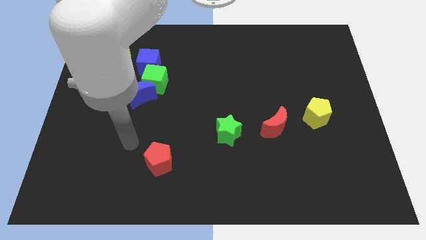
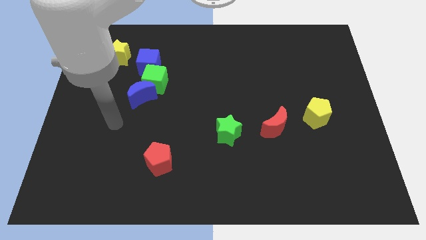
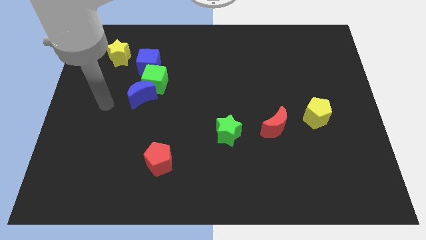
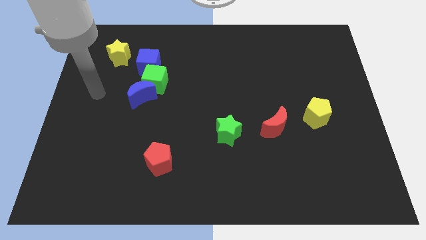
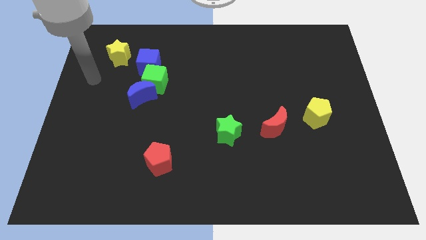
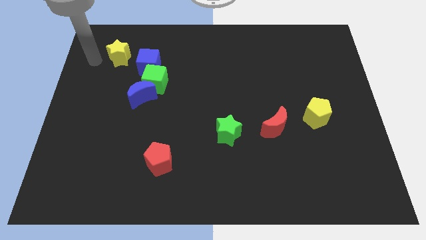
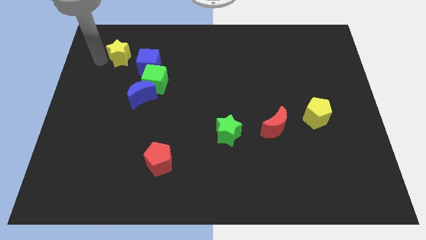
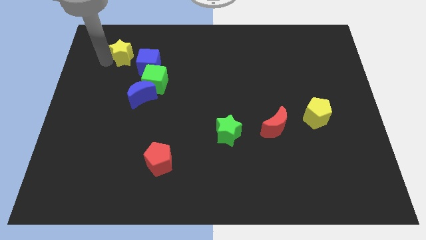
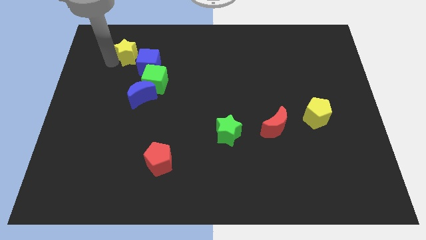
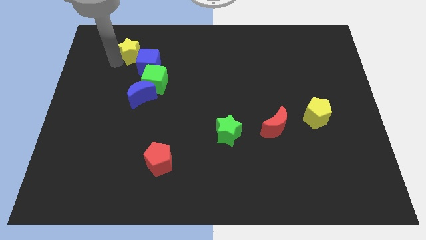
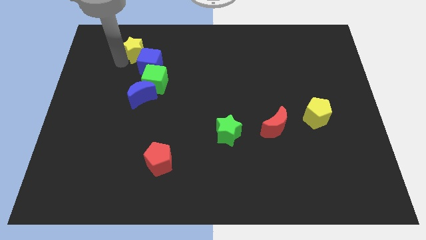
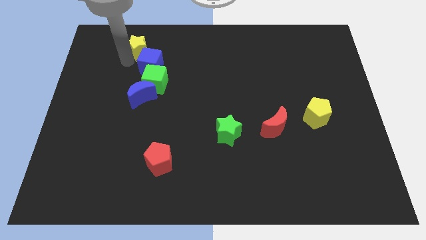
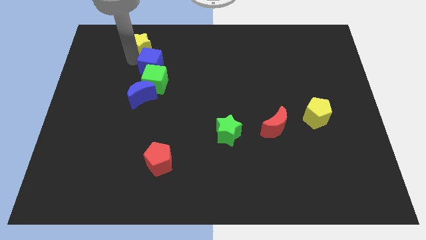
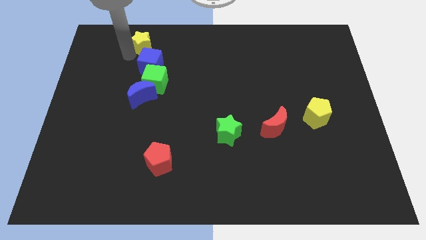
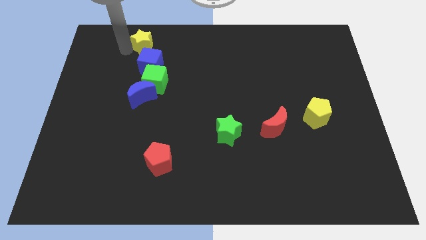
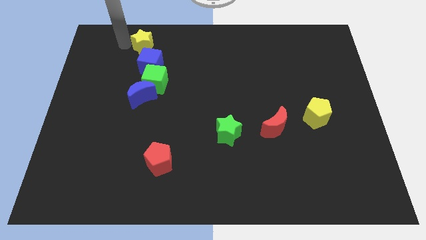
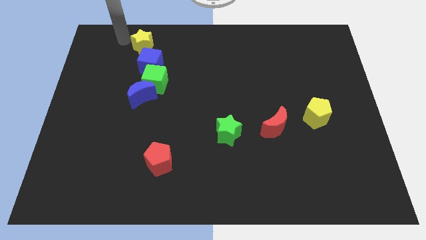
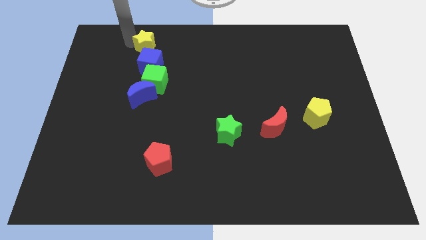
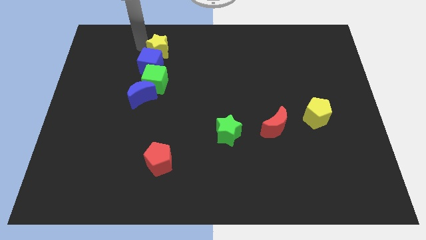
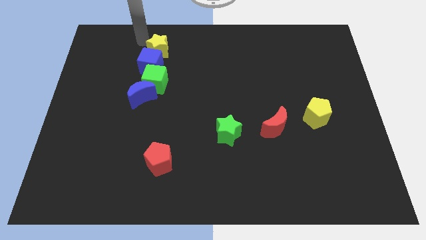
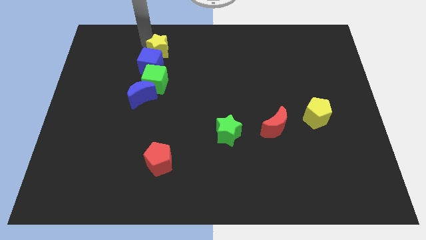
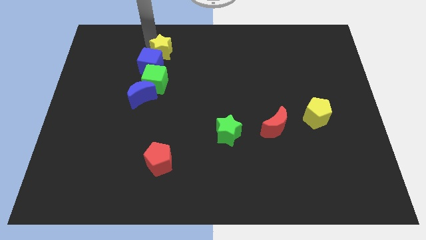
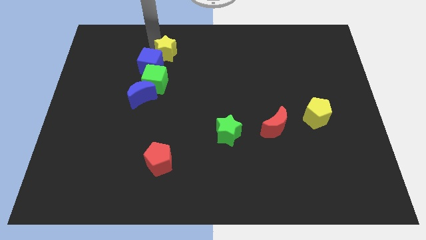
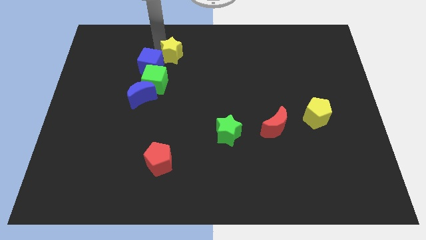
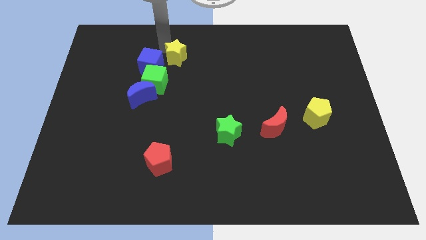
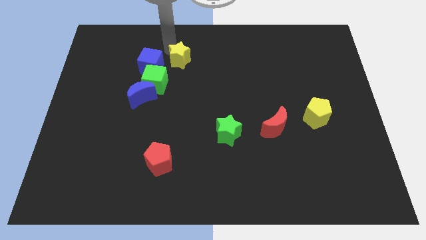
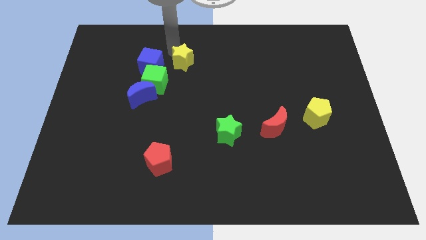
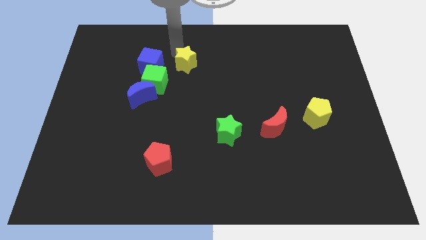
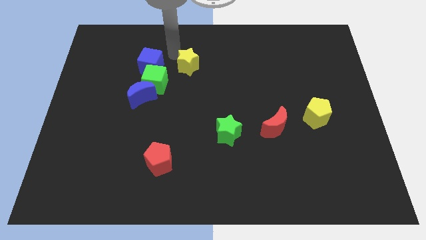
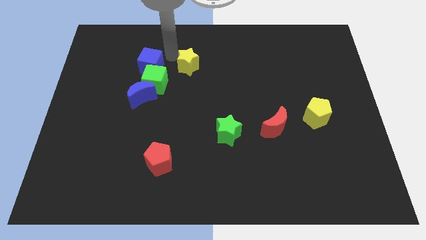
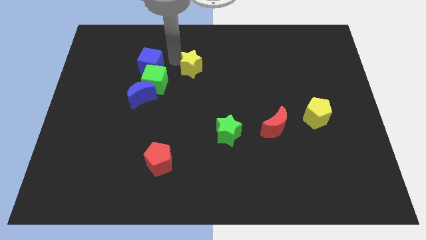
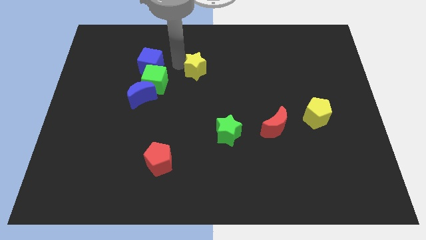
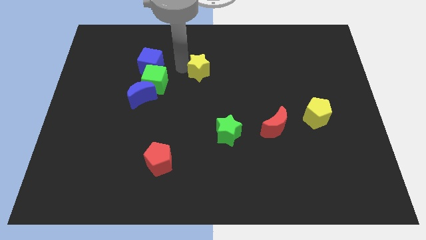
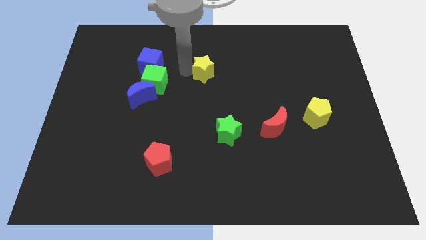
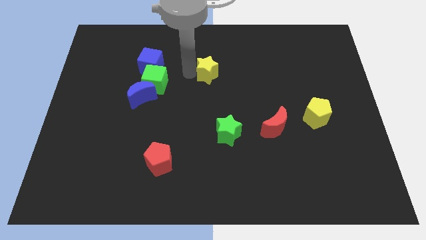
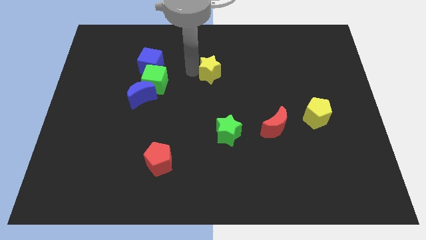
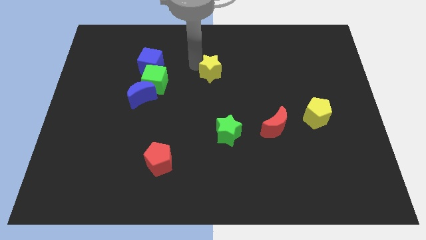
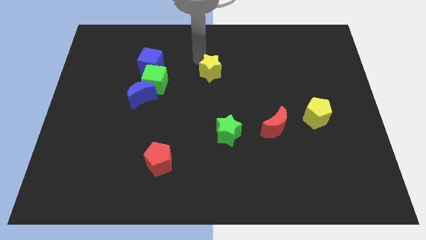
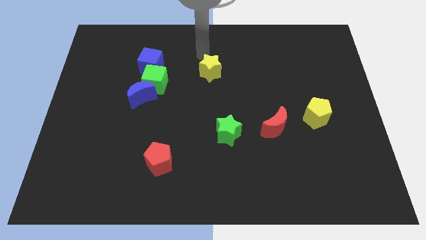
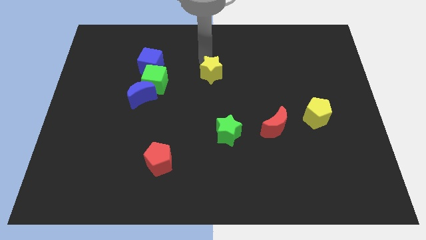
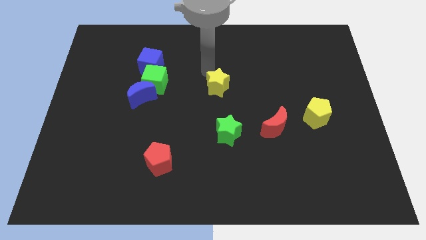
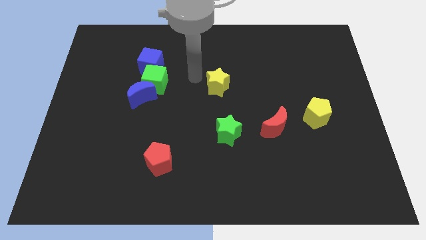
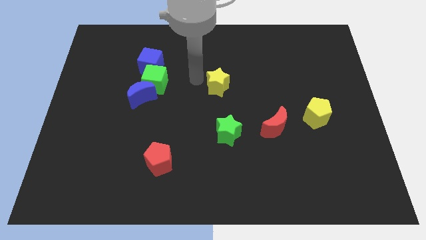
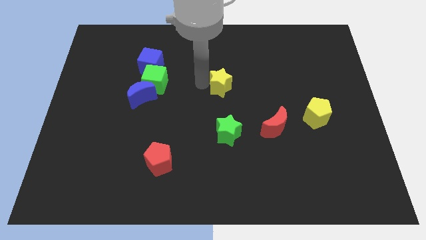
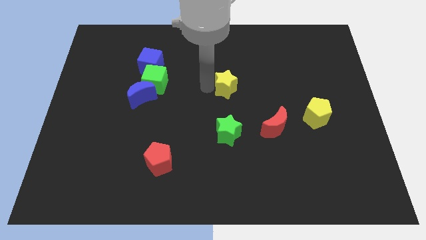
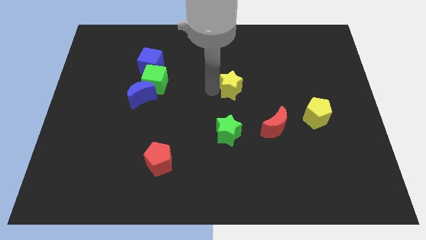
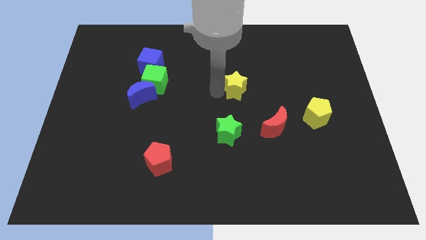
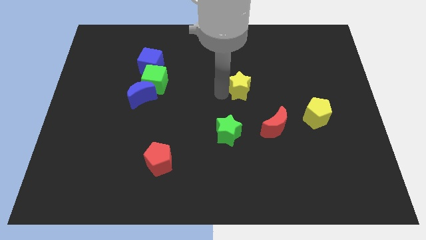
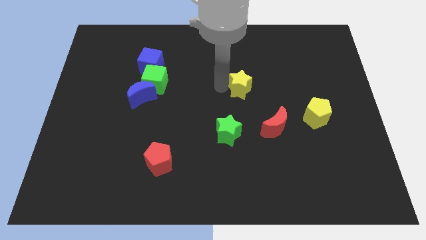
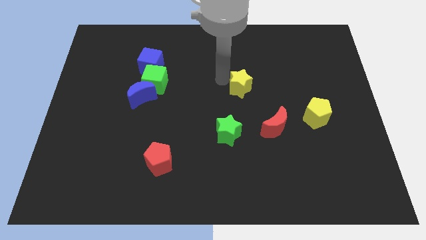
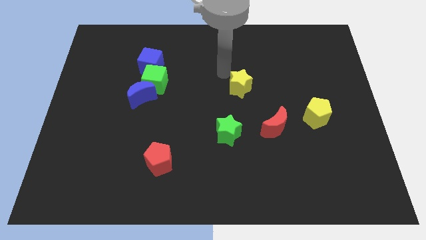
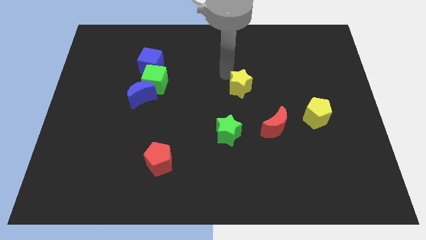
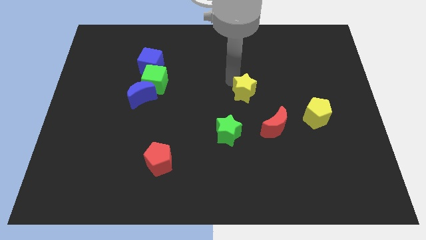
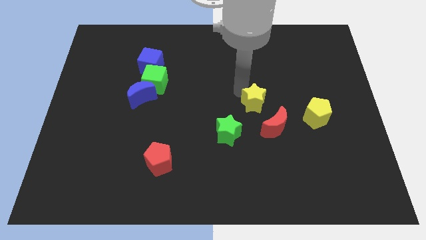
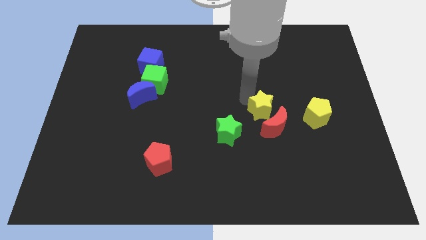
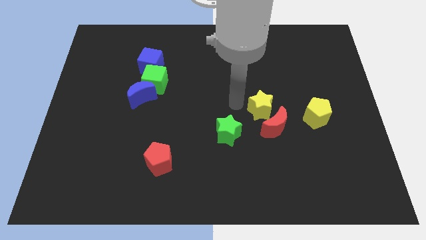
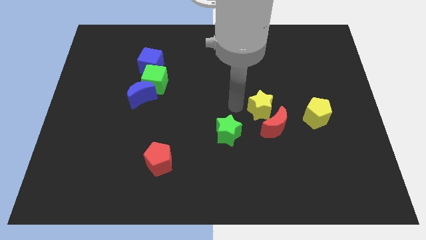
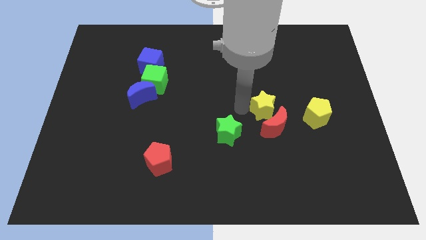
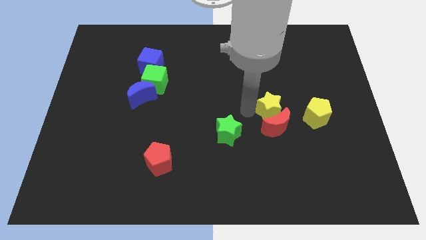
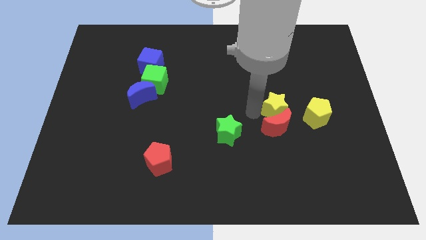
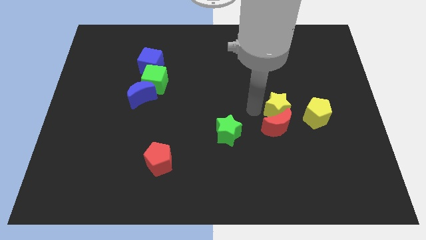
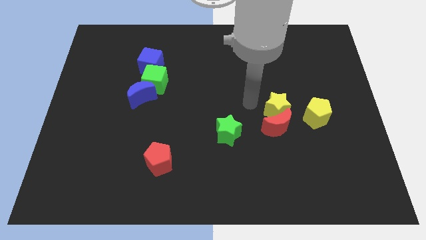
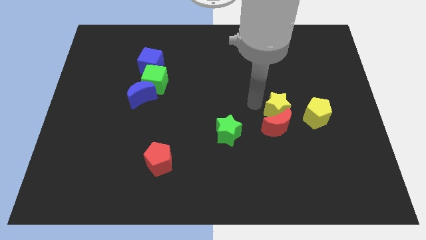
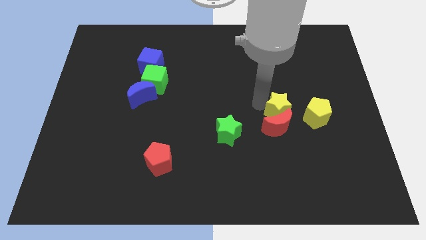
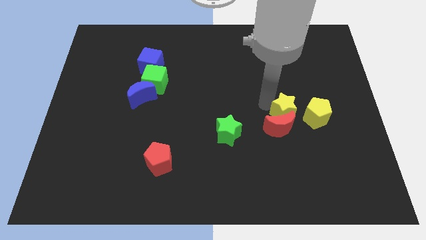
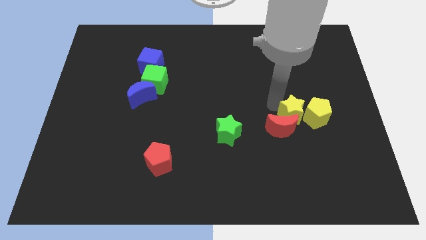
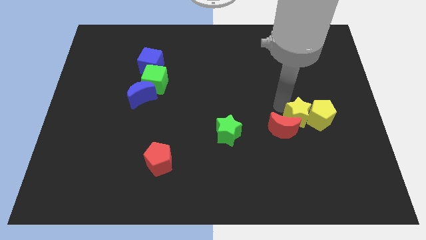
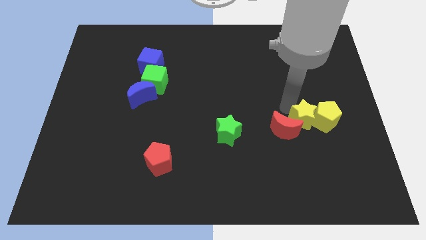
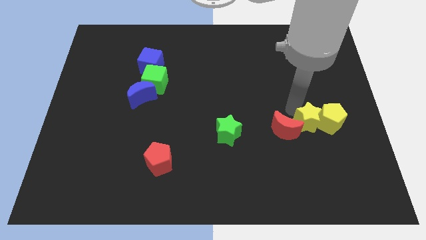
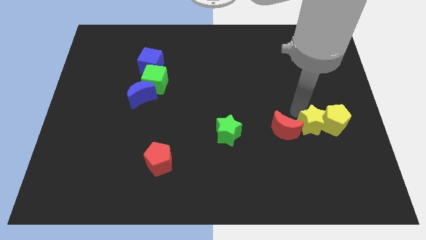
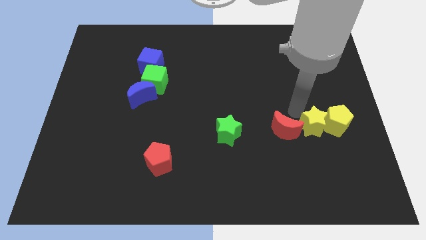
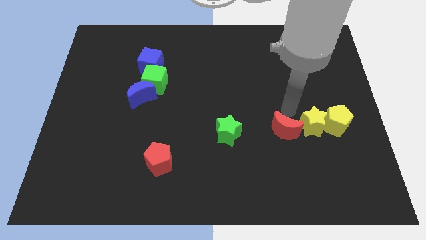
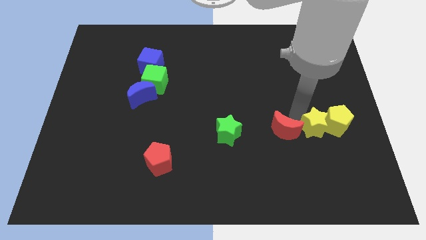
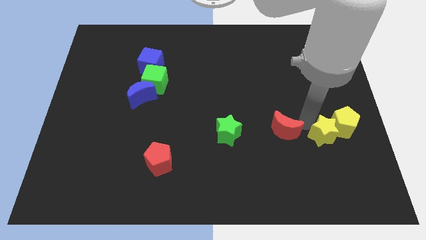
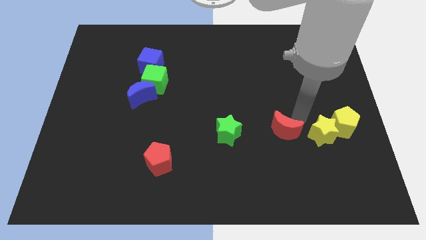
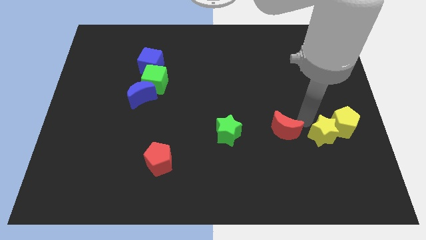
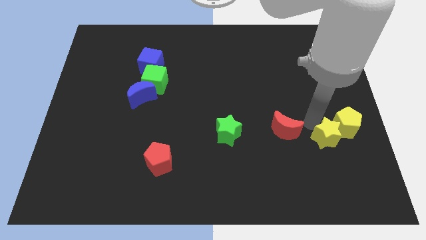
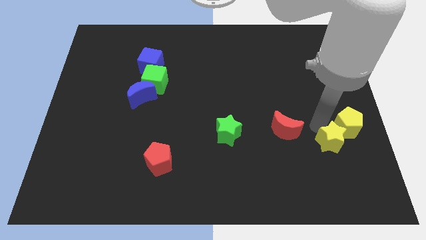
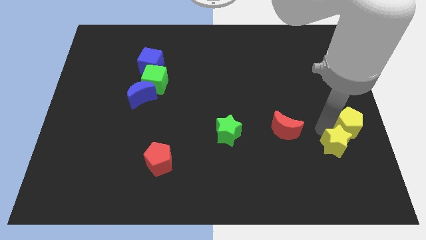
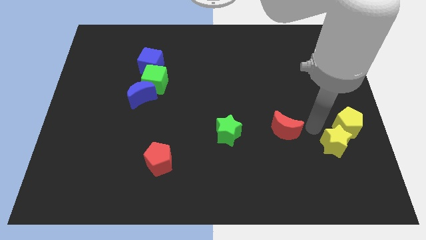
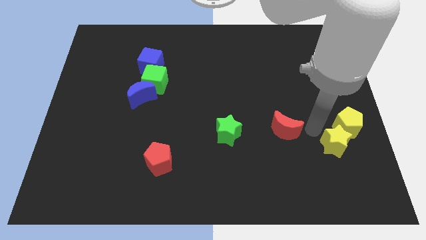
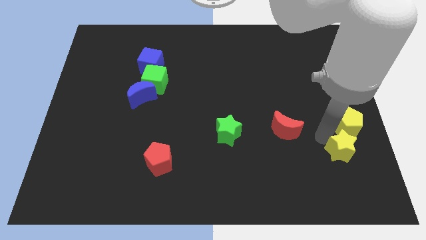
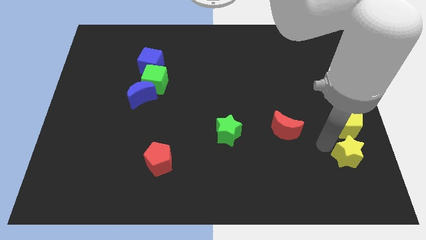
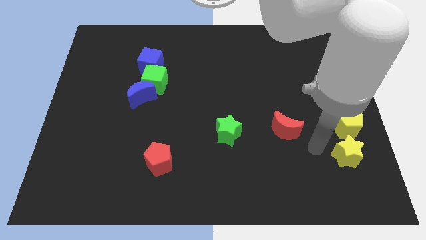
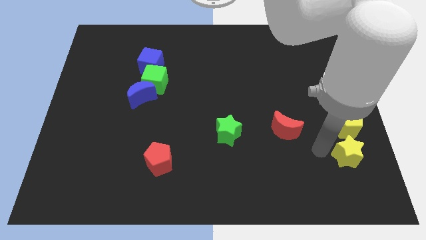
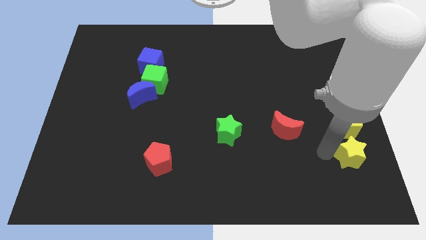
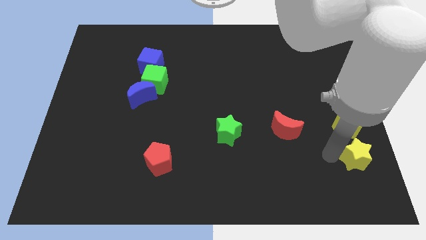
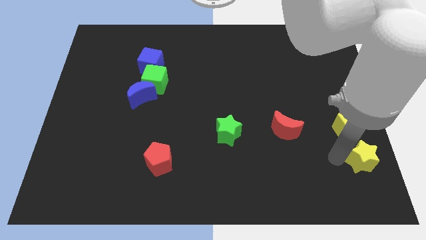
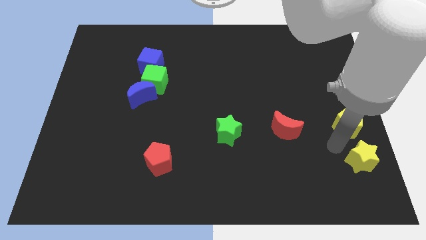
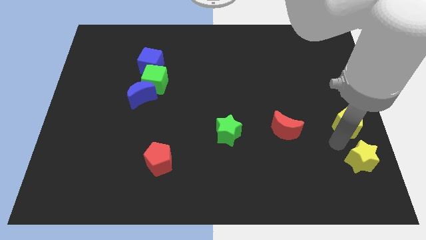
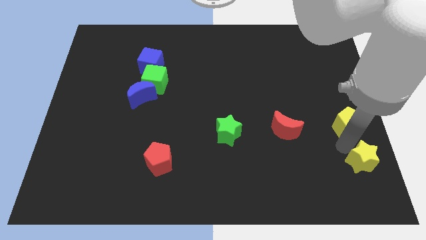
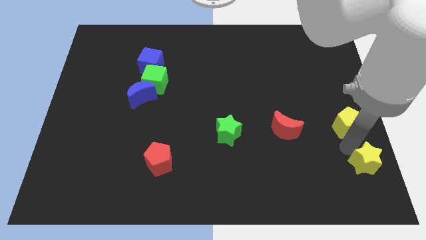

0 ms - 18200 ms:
push the yellow star to the bottom right corner
